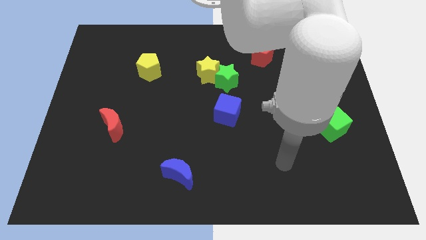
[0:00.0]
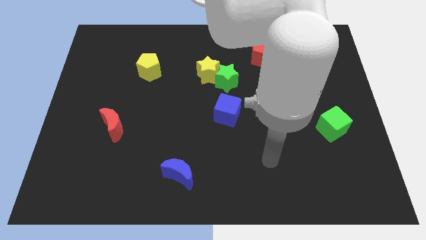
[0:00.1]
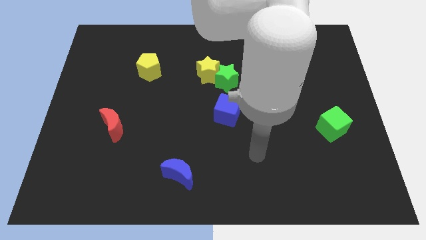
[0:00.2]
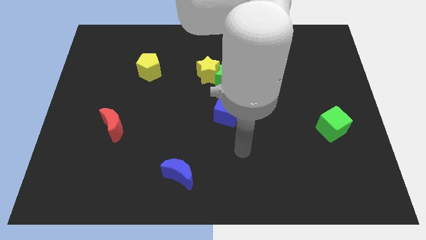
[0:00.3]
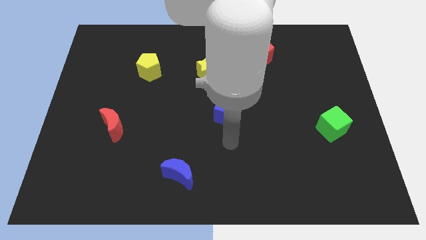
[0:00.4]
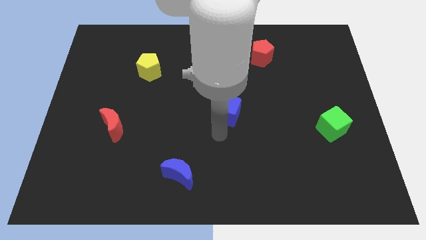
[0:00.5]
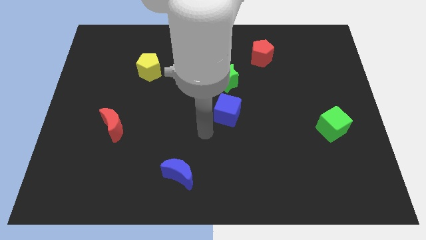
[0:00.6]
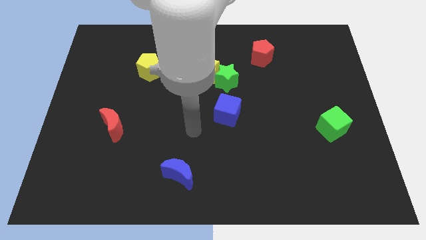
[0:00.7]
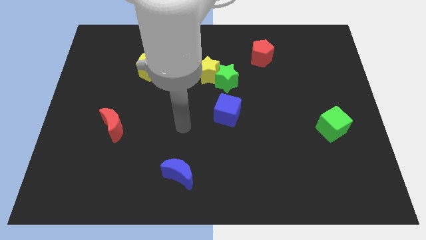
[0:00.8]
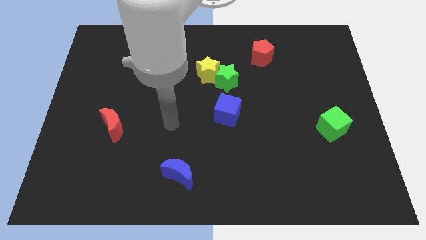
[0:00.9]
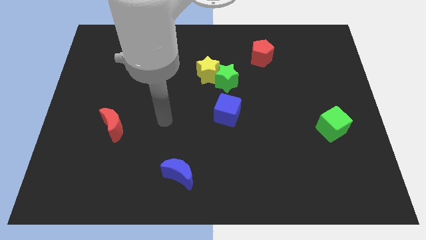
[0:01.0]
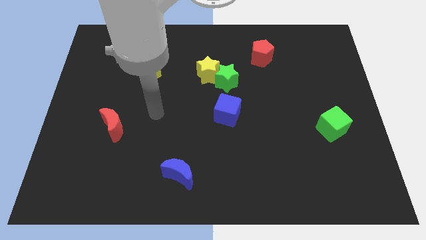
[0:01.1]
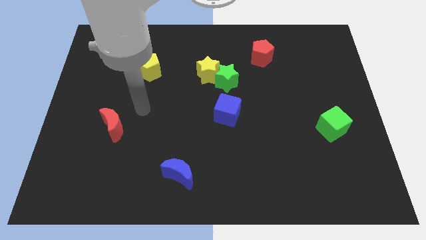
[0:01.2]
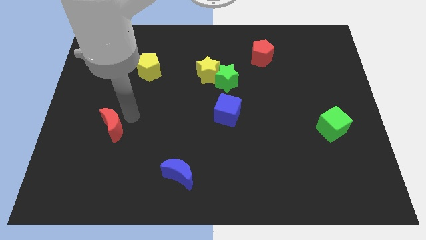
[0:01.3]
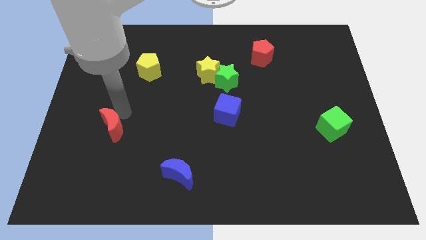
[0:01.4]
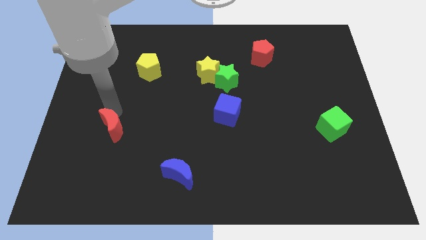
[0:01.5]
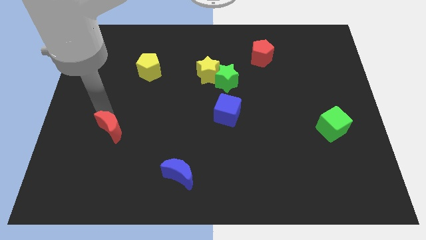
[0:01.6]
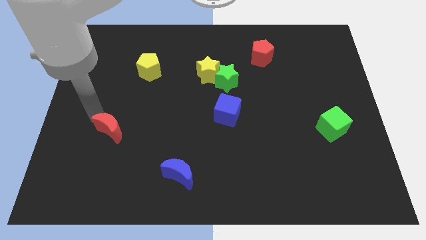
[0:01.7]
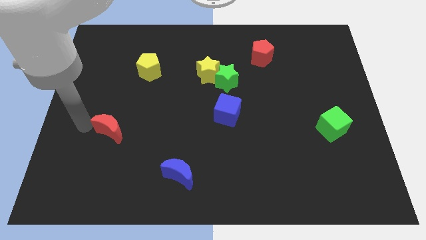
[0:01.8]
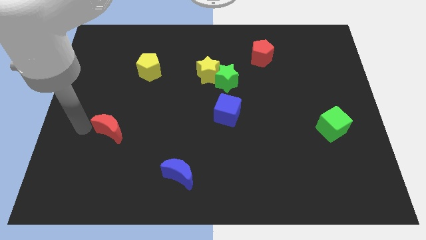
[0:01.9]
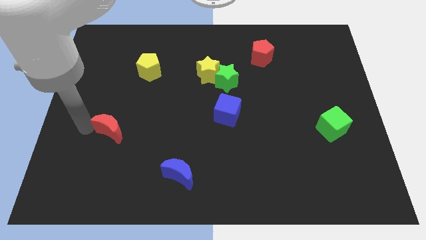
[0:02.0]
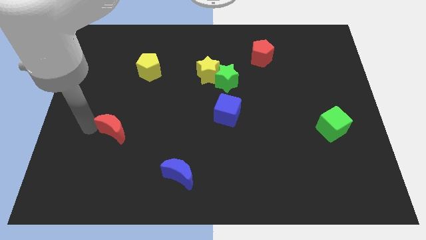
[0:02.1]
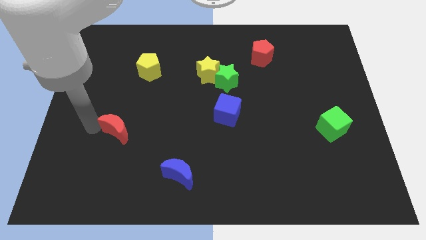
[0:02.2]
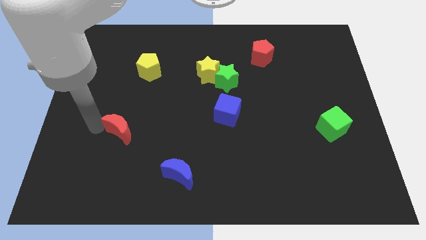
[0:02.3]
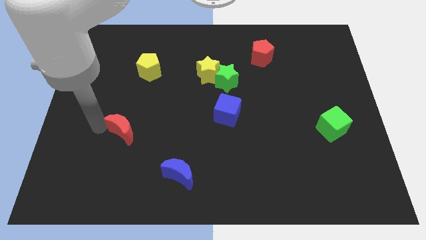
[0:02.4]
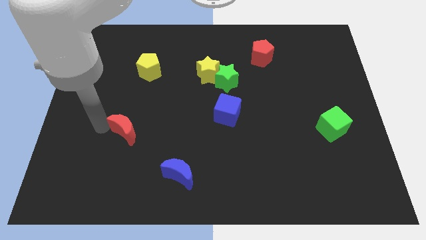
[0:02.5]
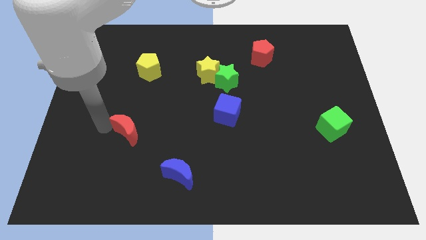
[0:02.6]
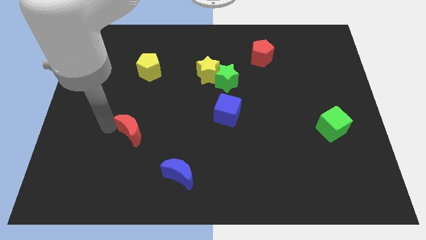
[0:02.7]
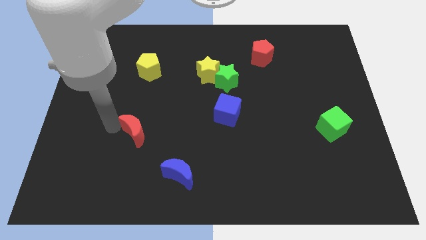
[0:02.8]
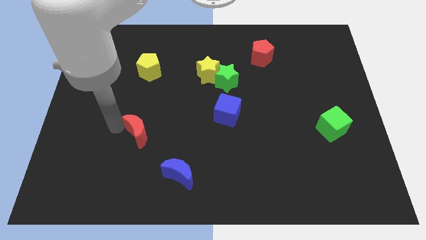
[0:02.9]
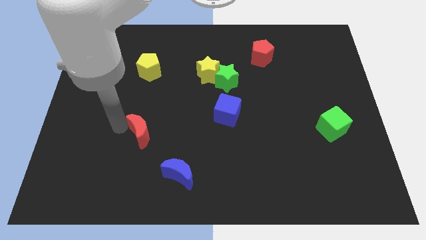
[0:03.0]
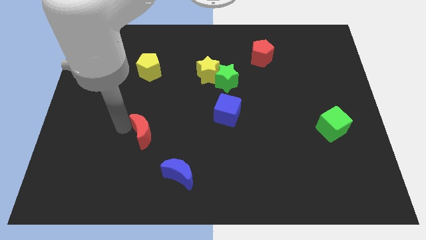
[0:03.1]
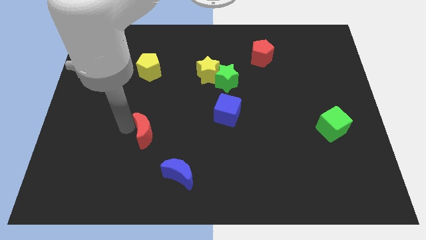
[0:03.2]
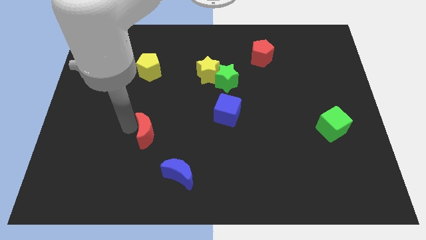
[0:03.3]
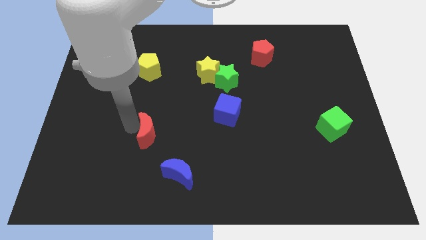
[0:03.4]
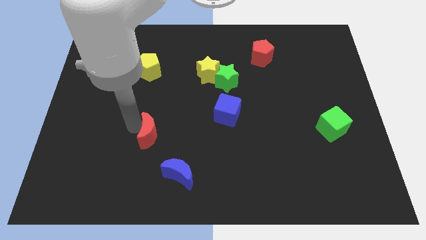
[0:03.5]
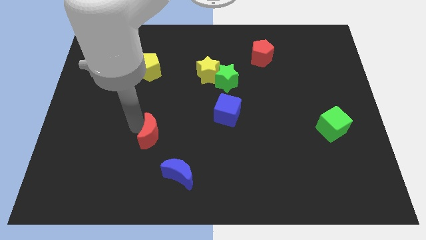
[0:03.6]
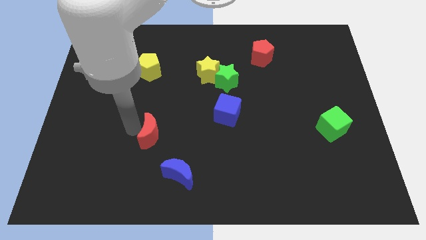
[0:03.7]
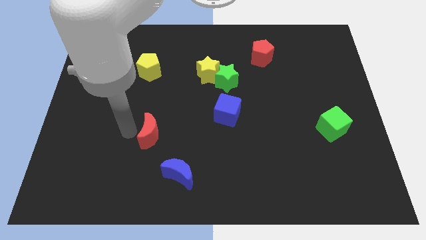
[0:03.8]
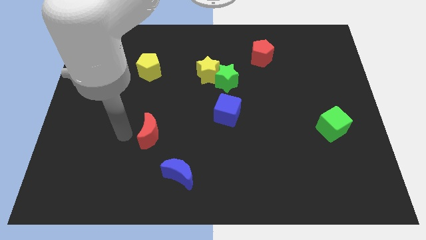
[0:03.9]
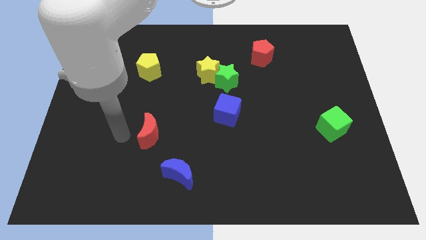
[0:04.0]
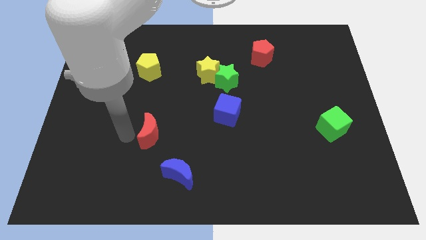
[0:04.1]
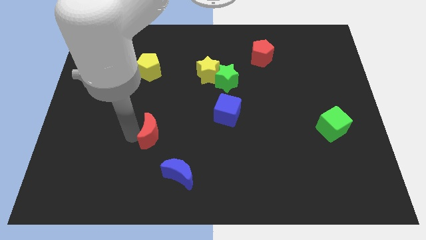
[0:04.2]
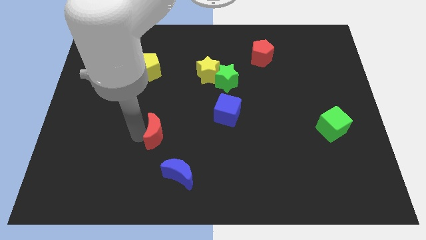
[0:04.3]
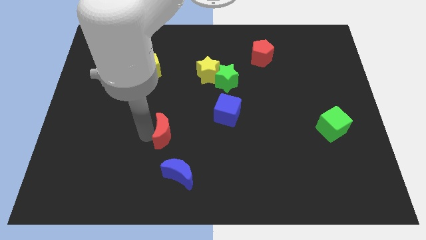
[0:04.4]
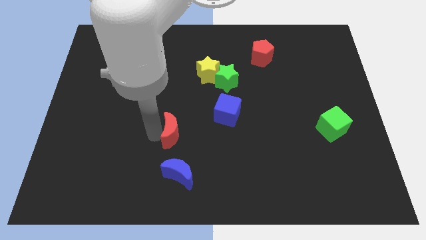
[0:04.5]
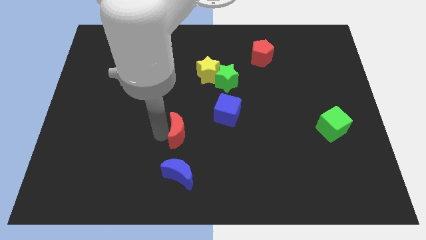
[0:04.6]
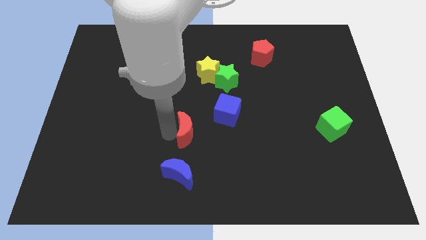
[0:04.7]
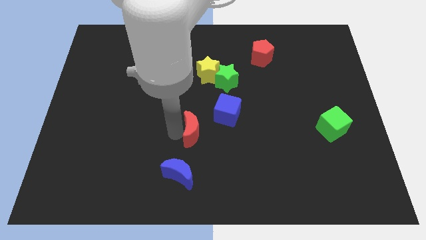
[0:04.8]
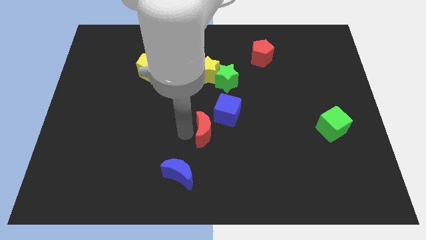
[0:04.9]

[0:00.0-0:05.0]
slide the red moon right

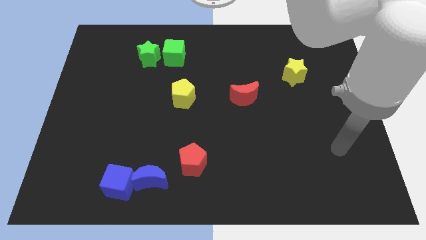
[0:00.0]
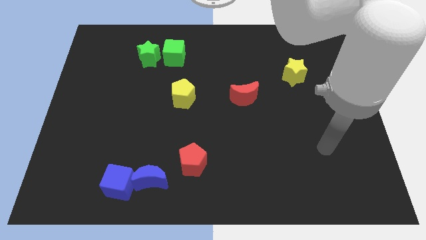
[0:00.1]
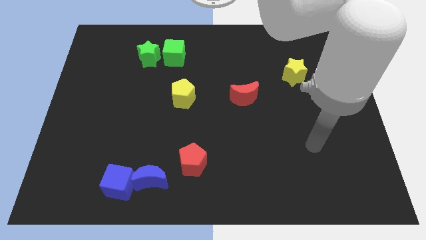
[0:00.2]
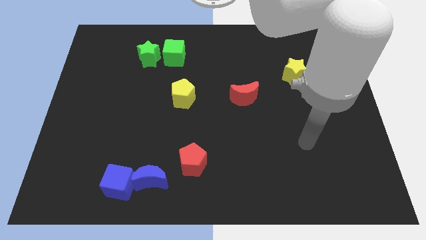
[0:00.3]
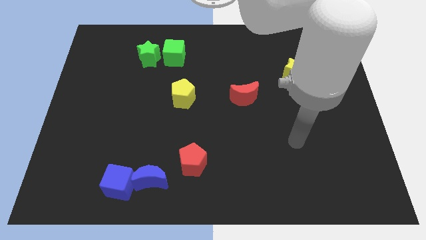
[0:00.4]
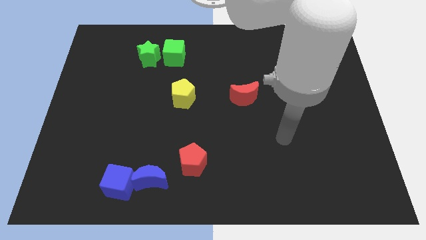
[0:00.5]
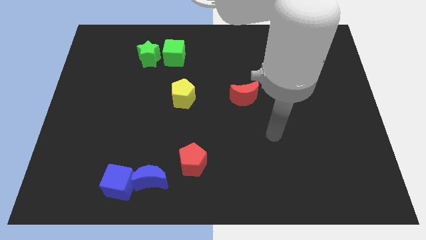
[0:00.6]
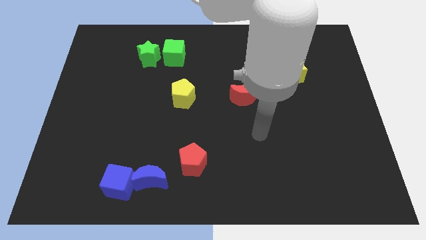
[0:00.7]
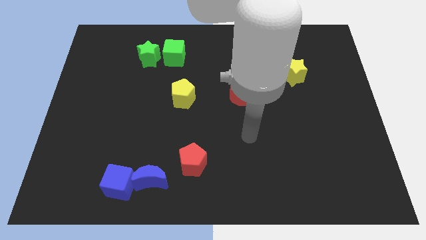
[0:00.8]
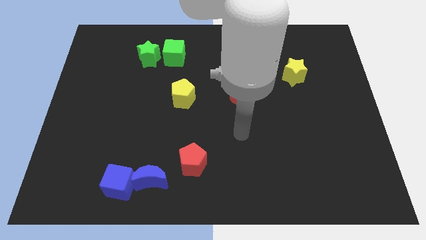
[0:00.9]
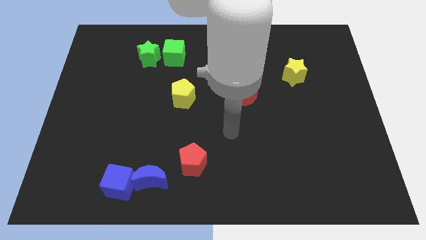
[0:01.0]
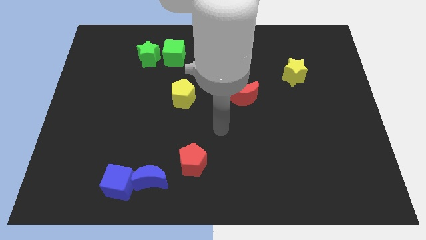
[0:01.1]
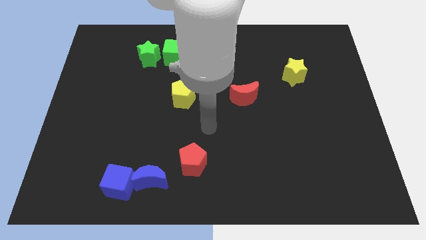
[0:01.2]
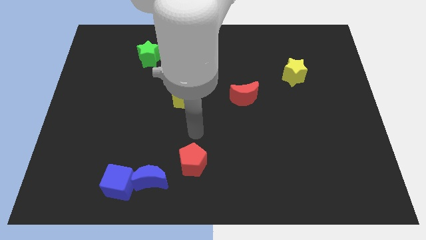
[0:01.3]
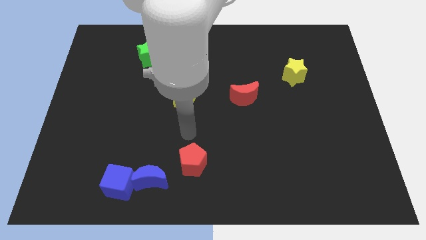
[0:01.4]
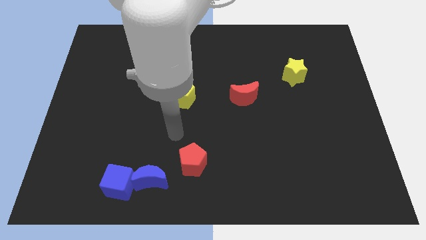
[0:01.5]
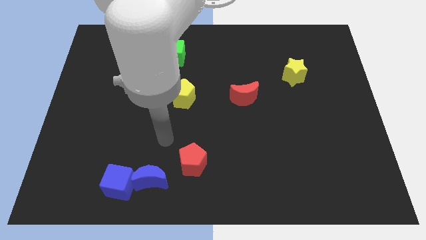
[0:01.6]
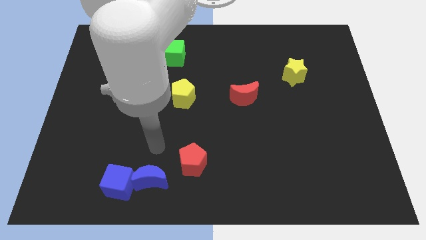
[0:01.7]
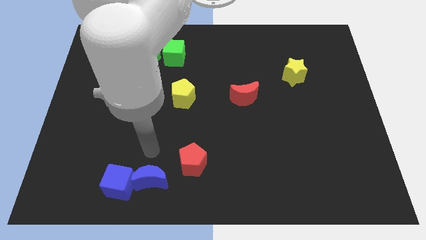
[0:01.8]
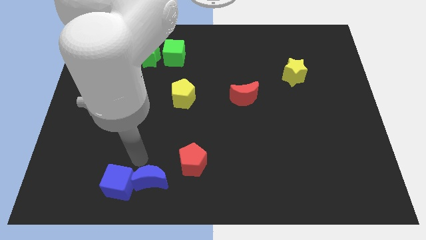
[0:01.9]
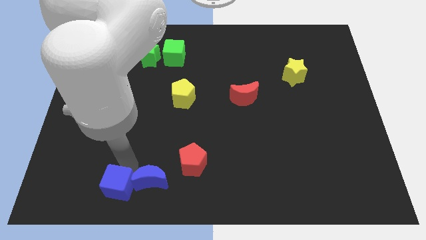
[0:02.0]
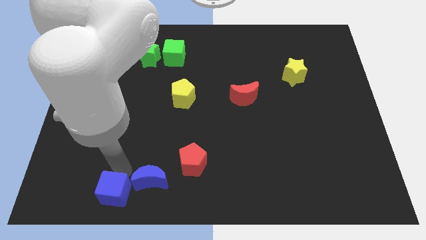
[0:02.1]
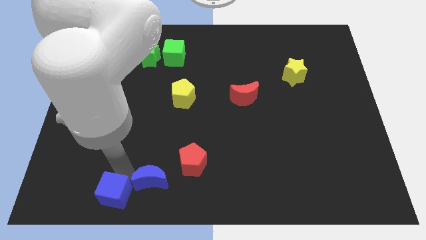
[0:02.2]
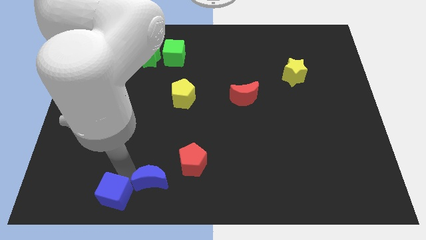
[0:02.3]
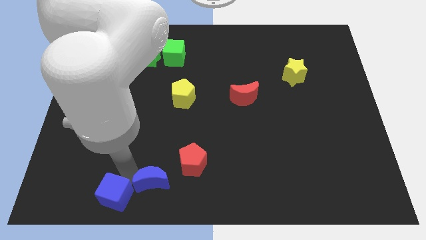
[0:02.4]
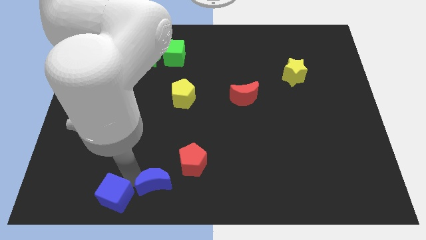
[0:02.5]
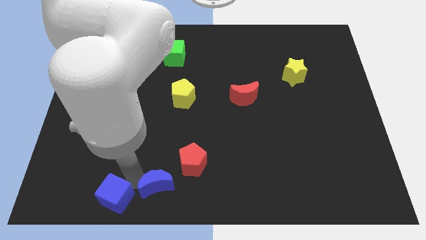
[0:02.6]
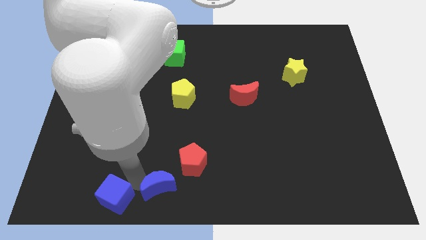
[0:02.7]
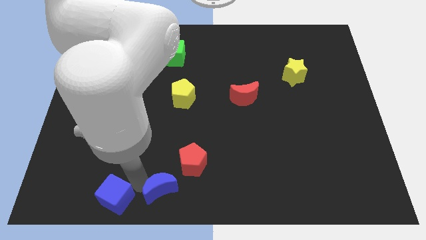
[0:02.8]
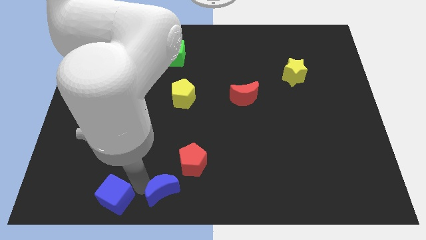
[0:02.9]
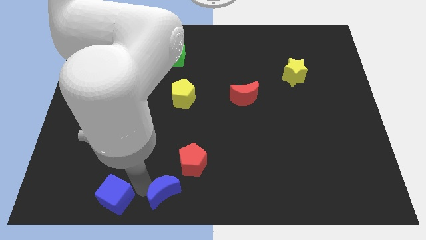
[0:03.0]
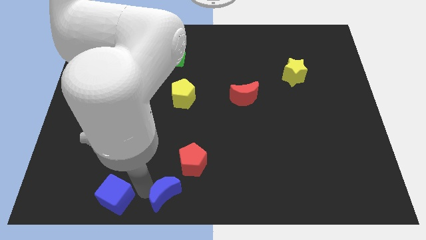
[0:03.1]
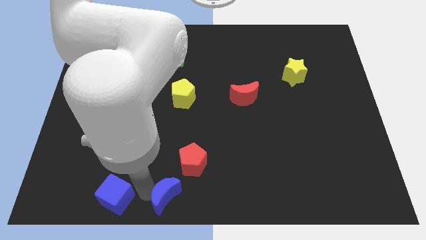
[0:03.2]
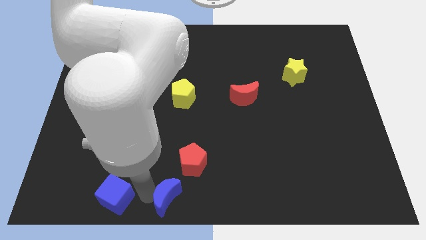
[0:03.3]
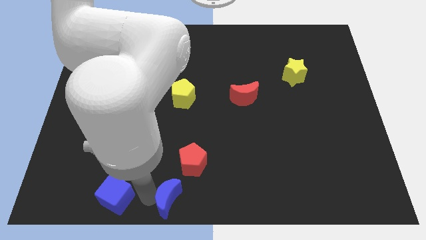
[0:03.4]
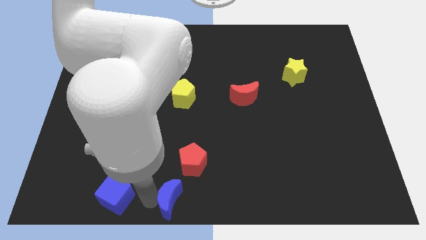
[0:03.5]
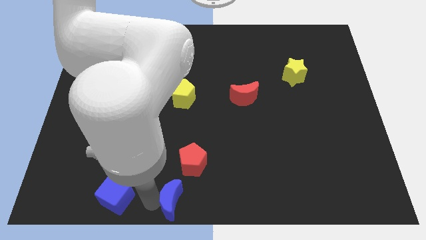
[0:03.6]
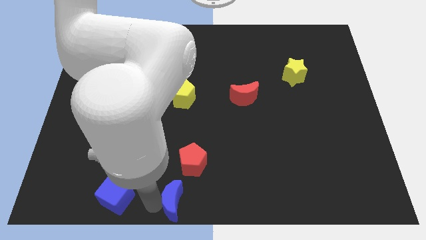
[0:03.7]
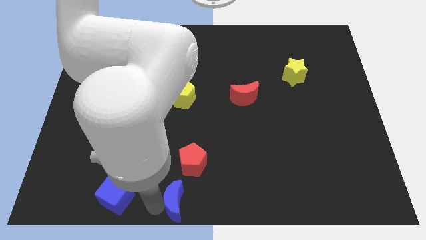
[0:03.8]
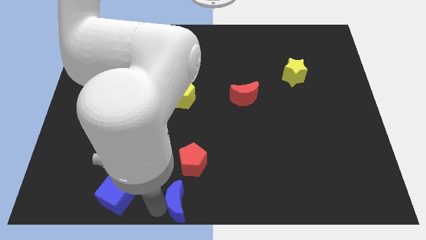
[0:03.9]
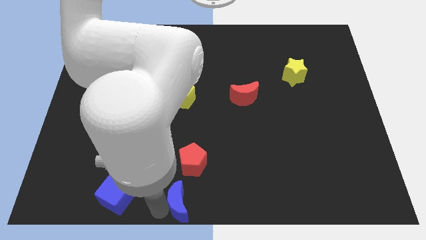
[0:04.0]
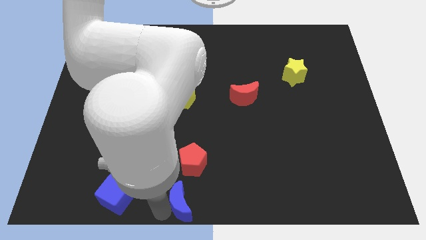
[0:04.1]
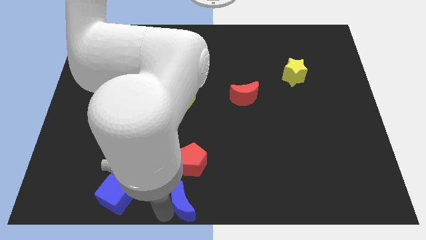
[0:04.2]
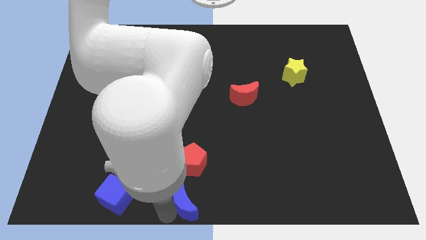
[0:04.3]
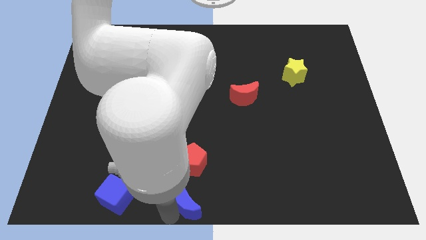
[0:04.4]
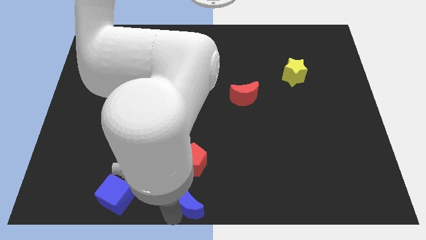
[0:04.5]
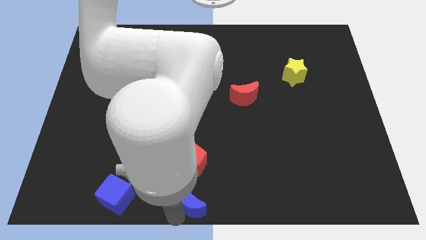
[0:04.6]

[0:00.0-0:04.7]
slightly push the blue moon right
